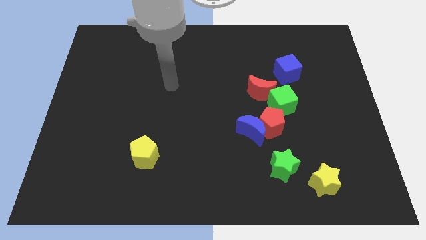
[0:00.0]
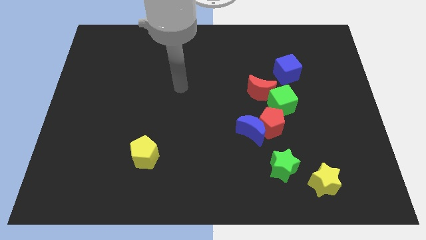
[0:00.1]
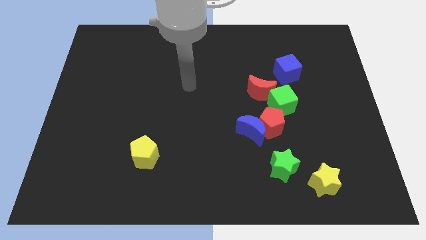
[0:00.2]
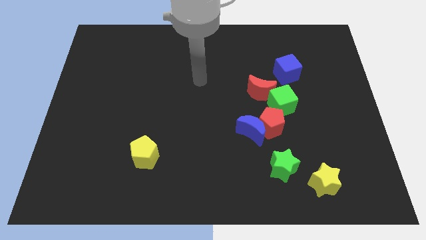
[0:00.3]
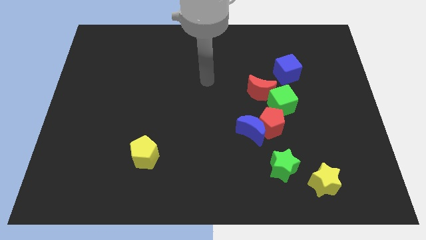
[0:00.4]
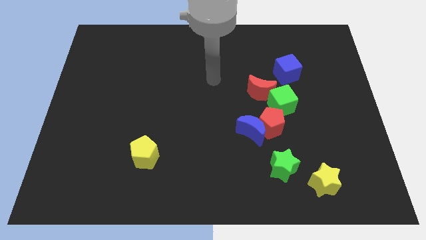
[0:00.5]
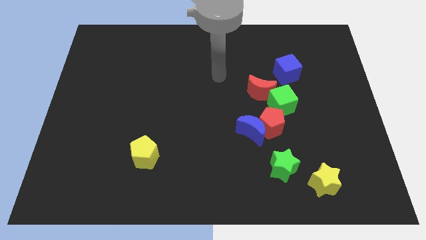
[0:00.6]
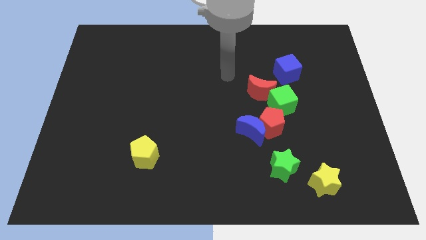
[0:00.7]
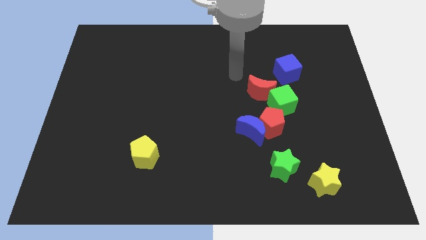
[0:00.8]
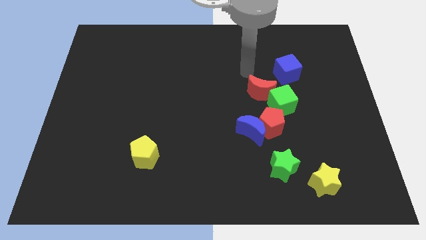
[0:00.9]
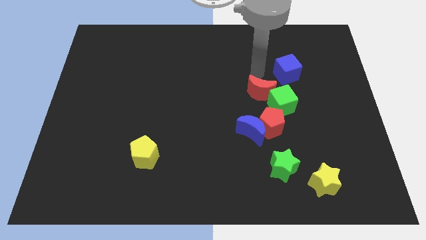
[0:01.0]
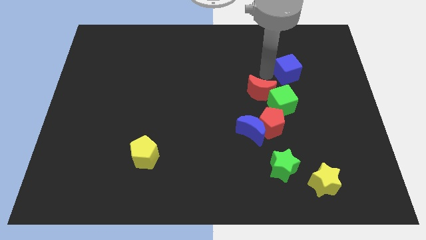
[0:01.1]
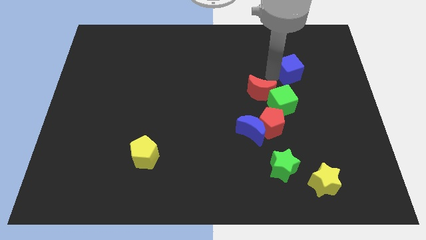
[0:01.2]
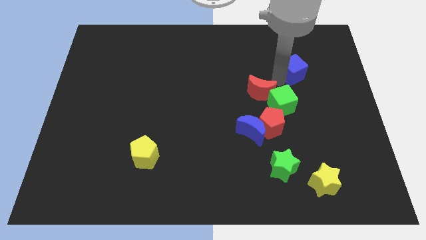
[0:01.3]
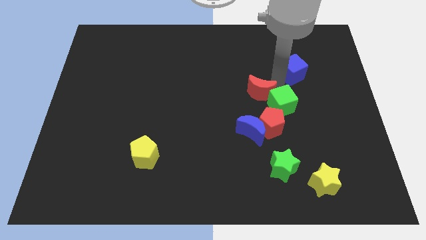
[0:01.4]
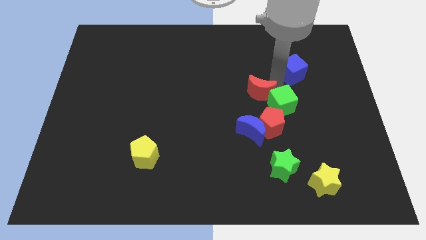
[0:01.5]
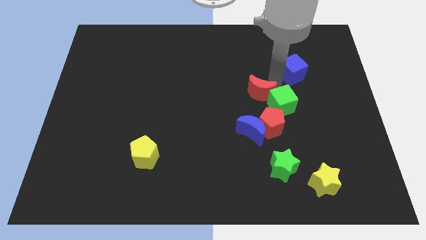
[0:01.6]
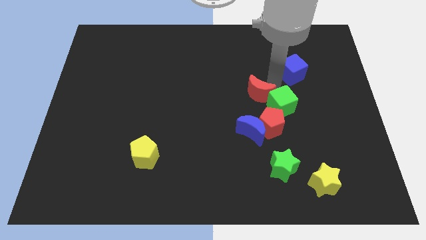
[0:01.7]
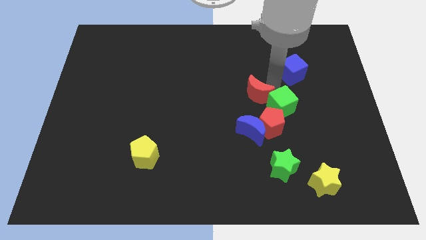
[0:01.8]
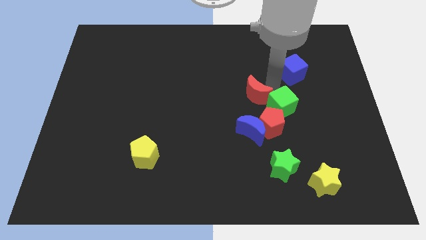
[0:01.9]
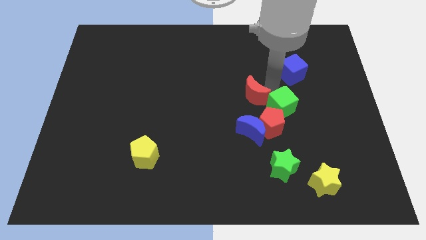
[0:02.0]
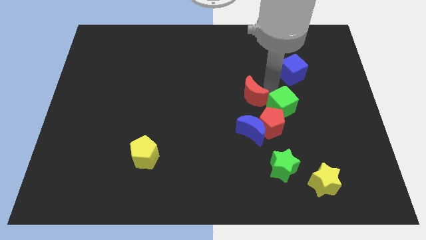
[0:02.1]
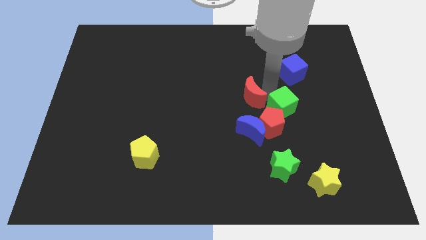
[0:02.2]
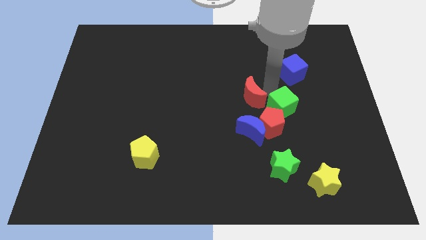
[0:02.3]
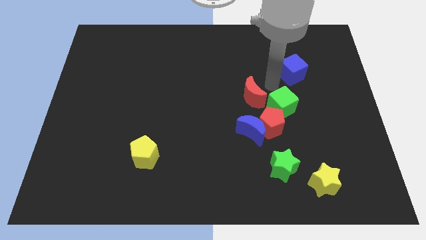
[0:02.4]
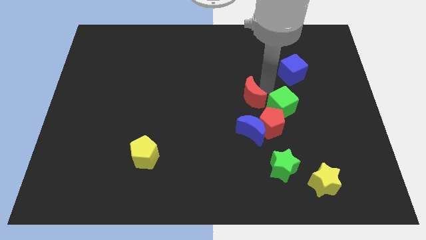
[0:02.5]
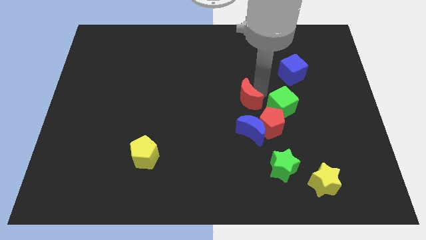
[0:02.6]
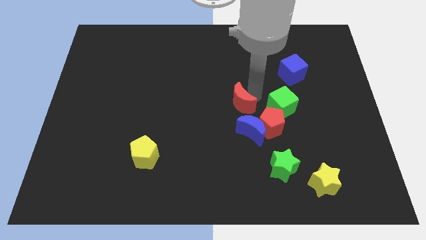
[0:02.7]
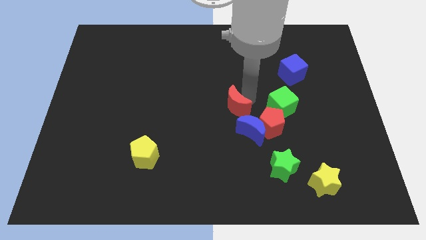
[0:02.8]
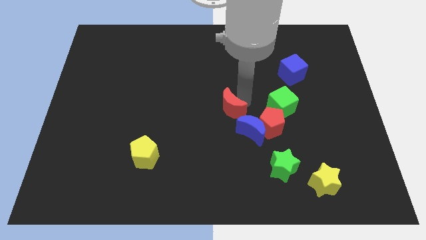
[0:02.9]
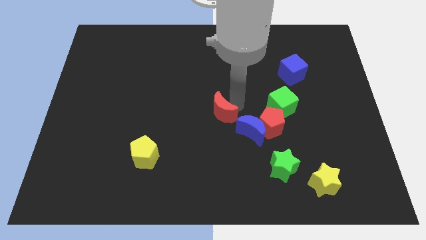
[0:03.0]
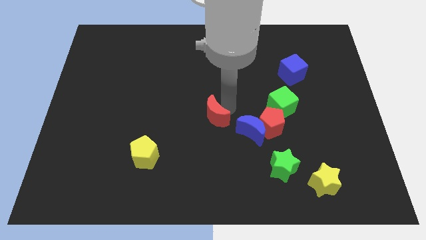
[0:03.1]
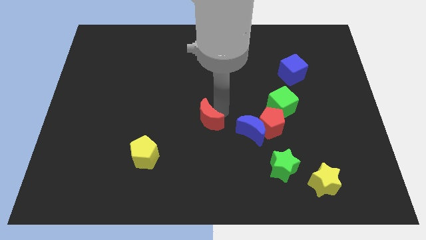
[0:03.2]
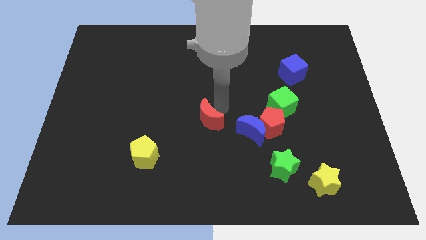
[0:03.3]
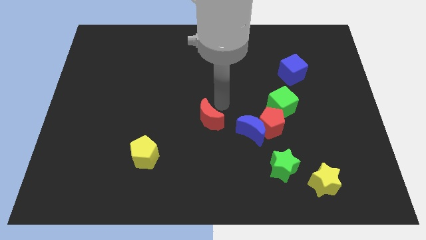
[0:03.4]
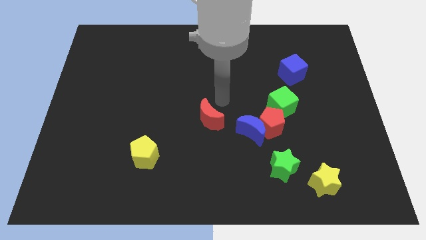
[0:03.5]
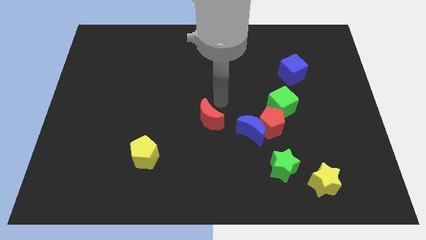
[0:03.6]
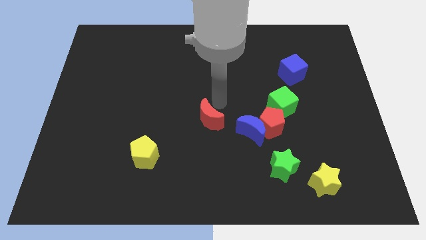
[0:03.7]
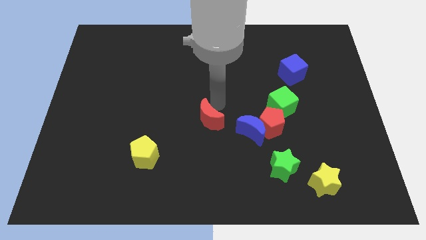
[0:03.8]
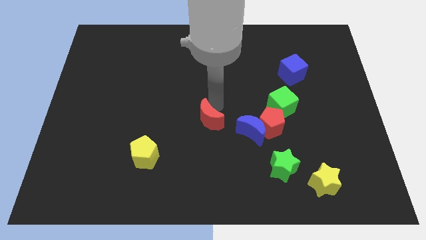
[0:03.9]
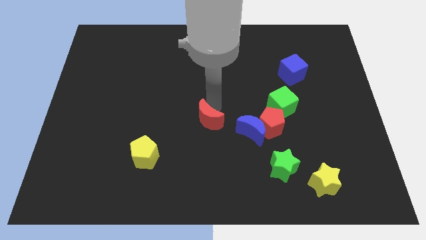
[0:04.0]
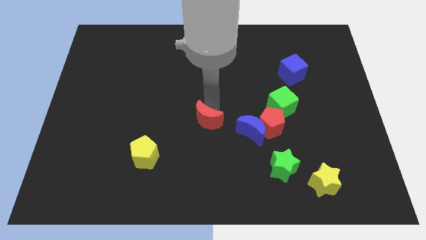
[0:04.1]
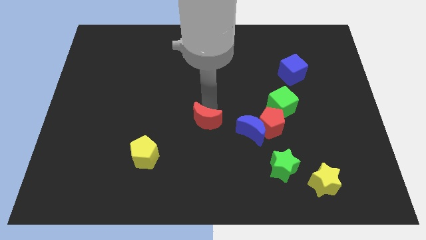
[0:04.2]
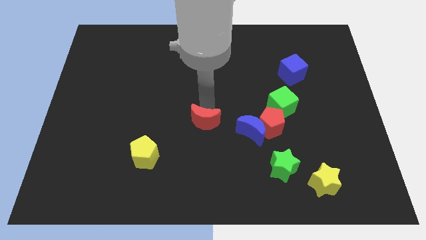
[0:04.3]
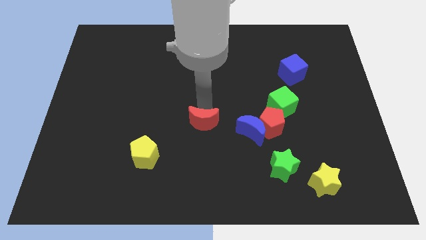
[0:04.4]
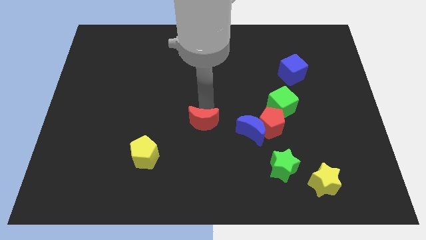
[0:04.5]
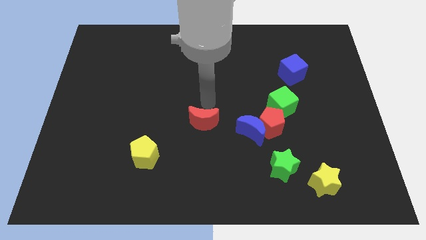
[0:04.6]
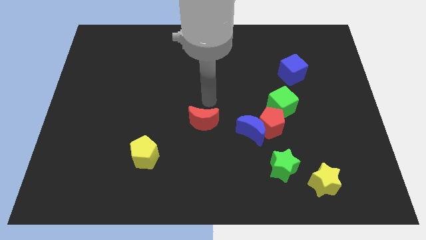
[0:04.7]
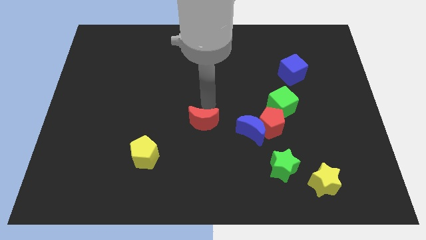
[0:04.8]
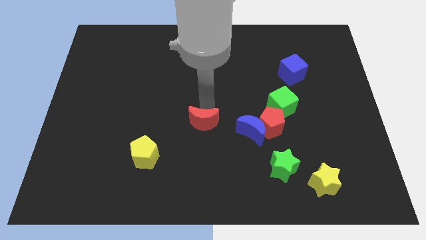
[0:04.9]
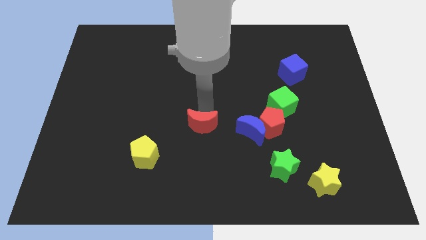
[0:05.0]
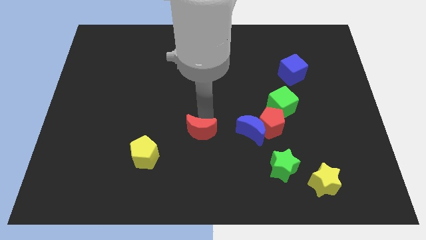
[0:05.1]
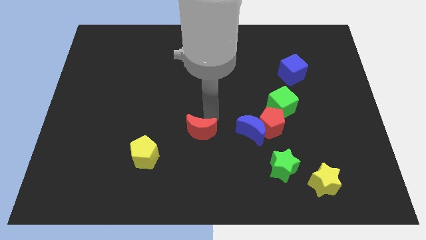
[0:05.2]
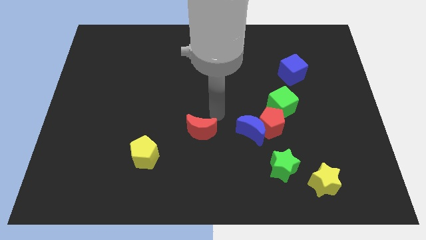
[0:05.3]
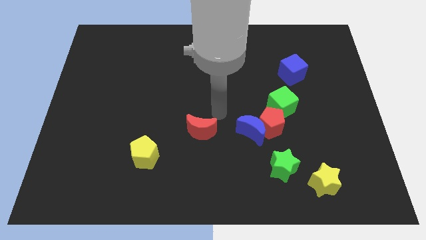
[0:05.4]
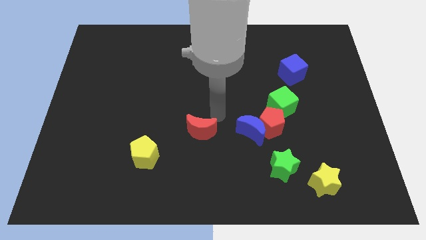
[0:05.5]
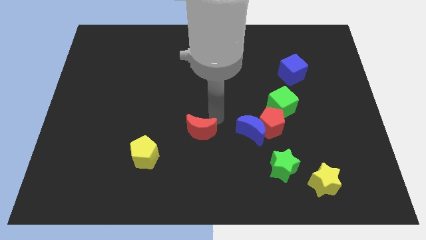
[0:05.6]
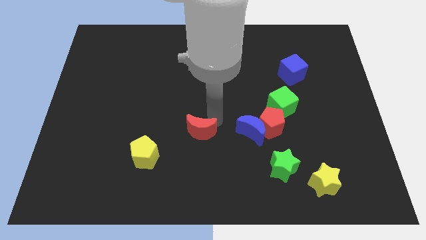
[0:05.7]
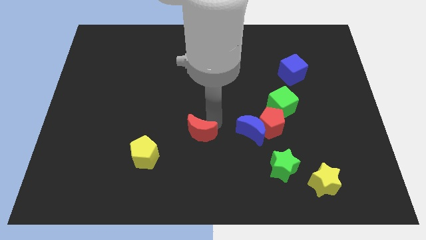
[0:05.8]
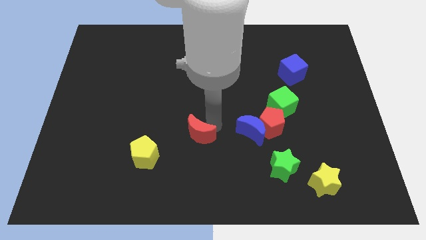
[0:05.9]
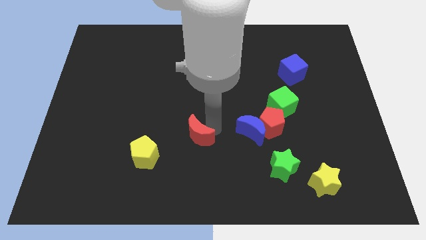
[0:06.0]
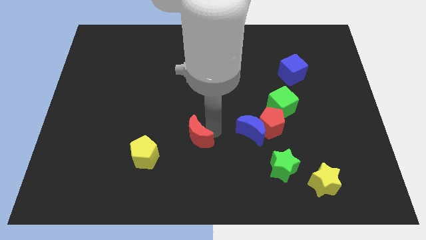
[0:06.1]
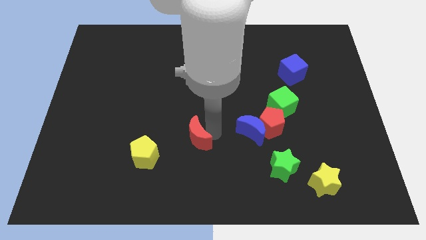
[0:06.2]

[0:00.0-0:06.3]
slide the red moon downwards and then to the left

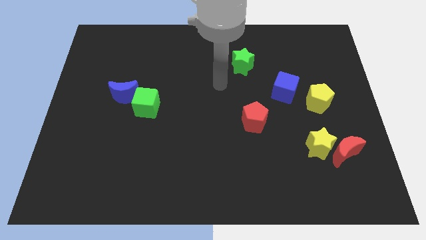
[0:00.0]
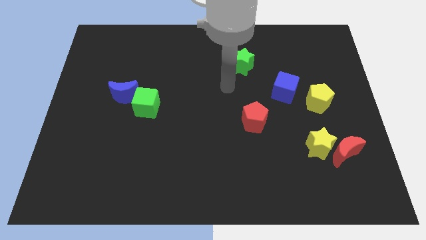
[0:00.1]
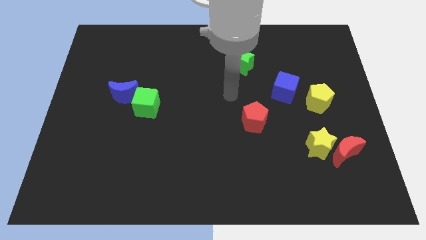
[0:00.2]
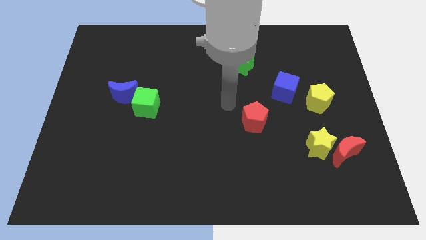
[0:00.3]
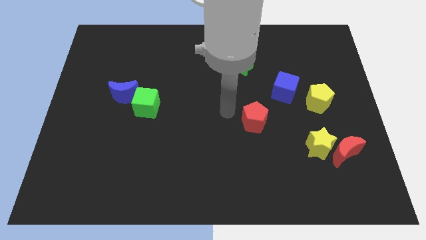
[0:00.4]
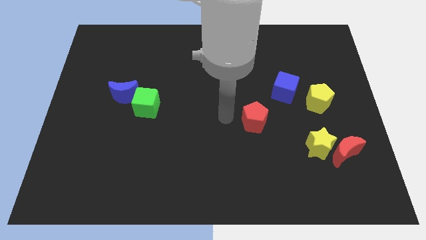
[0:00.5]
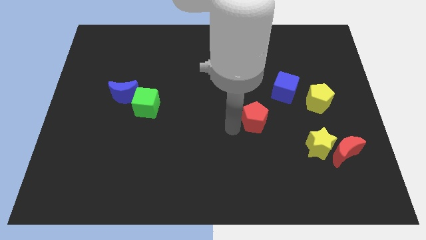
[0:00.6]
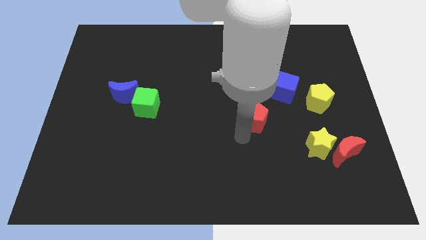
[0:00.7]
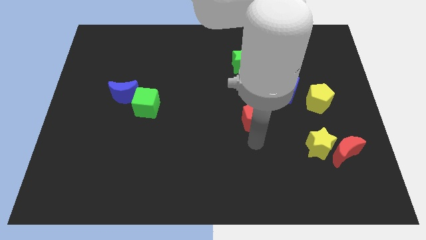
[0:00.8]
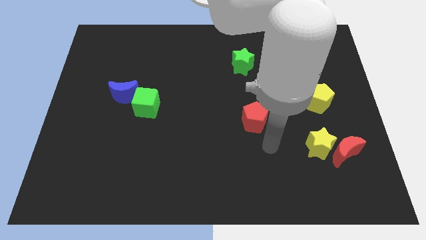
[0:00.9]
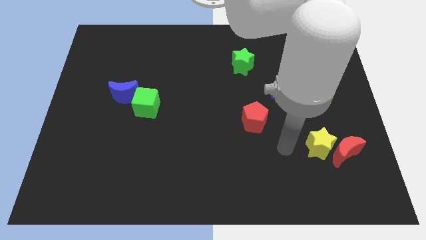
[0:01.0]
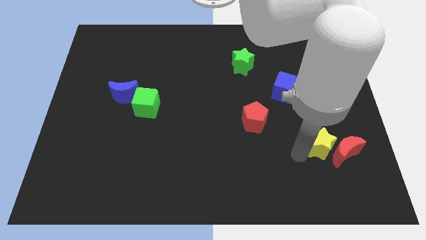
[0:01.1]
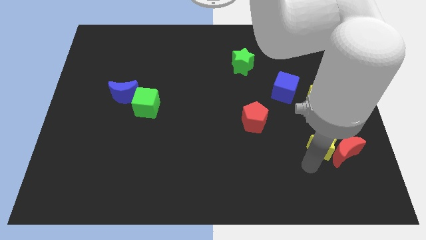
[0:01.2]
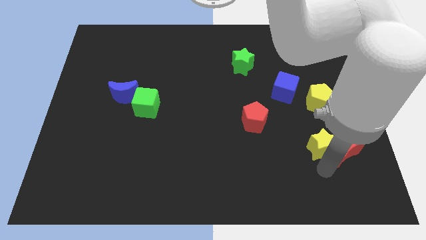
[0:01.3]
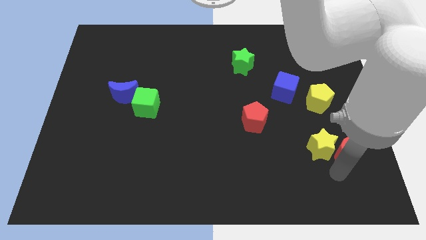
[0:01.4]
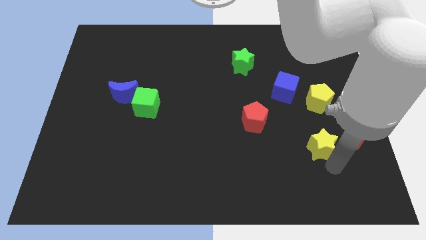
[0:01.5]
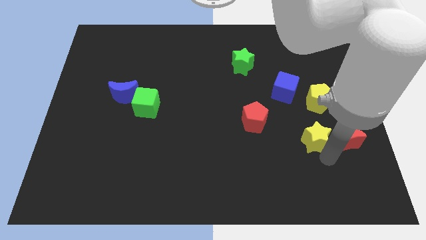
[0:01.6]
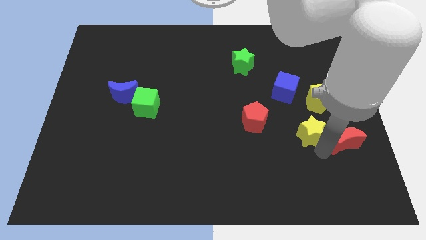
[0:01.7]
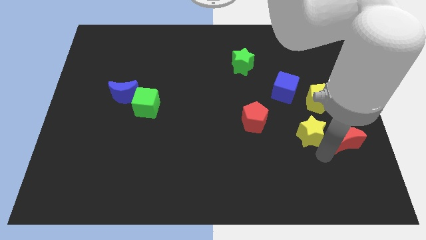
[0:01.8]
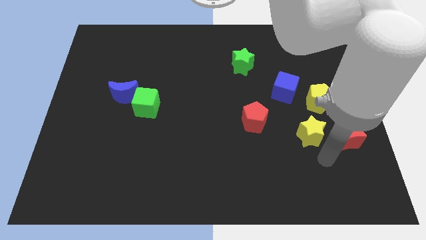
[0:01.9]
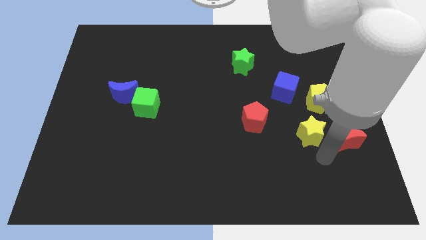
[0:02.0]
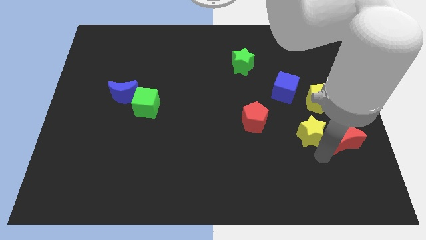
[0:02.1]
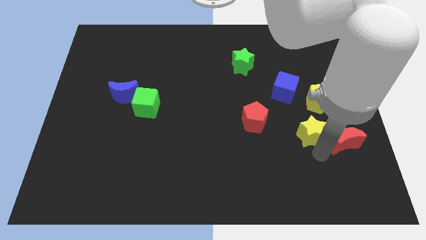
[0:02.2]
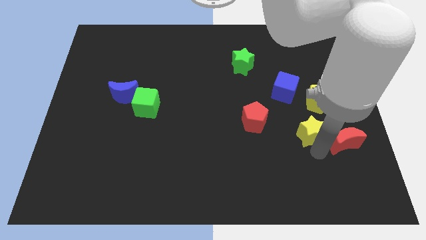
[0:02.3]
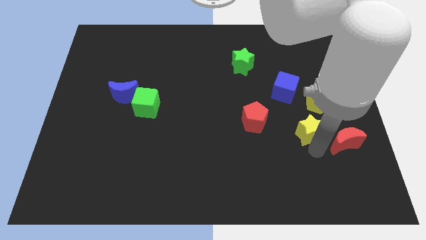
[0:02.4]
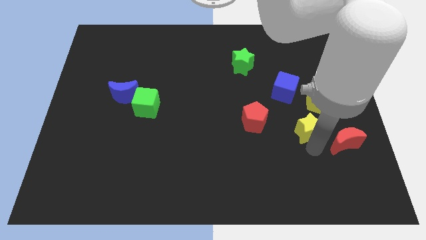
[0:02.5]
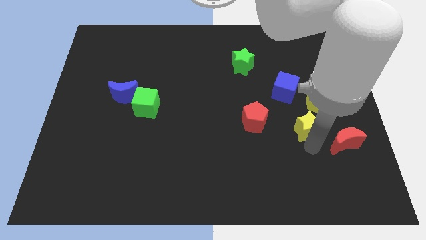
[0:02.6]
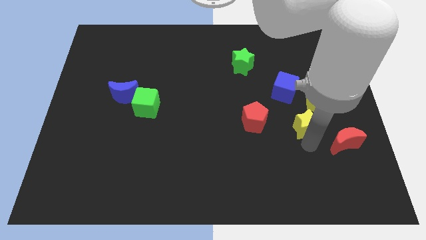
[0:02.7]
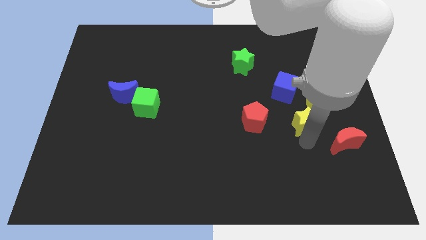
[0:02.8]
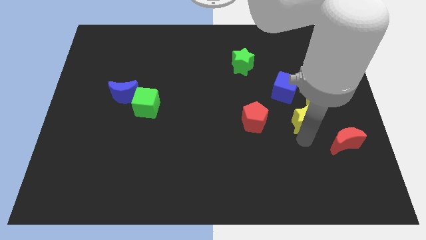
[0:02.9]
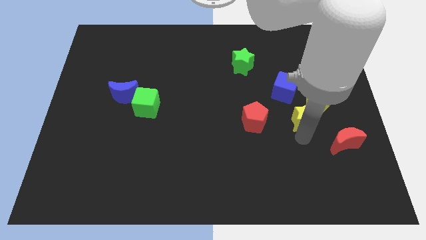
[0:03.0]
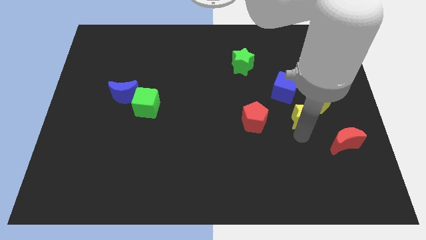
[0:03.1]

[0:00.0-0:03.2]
push the yellow star up a little
